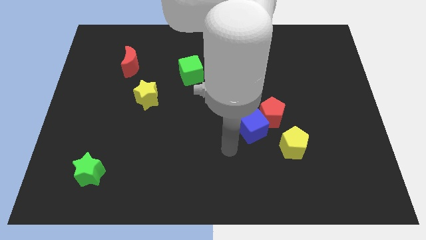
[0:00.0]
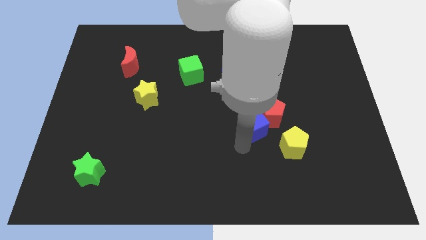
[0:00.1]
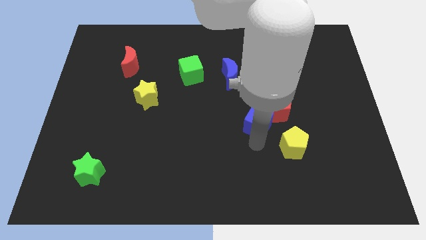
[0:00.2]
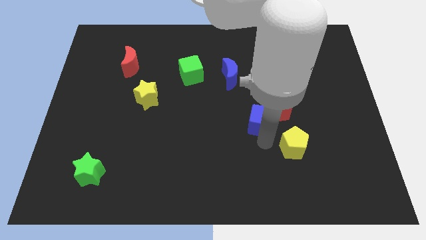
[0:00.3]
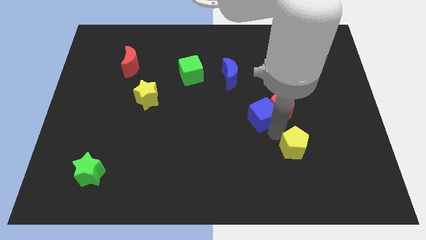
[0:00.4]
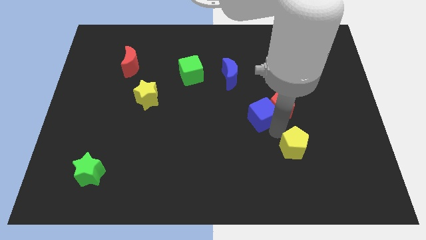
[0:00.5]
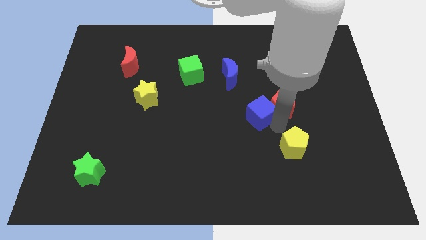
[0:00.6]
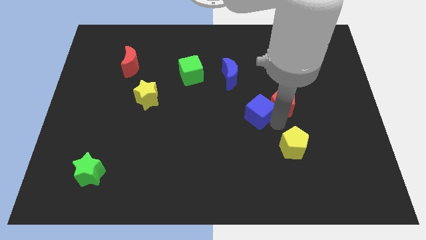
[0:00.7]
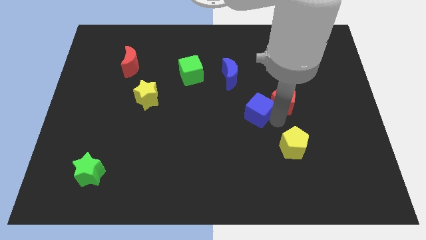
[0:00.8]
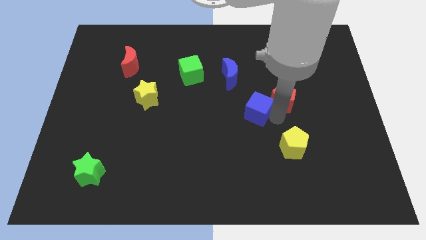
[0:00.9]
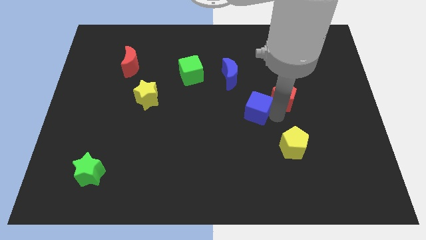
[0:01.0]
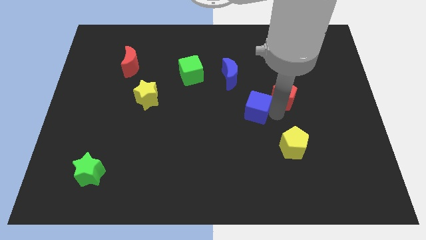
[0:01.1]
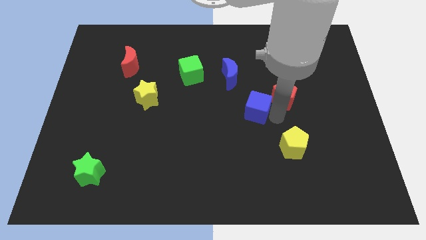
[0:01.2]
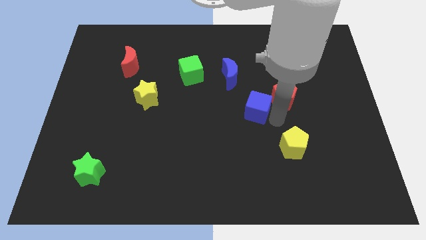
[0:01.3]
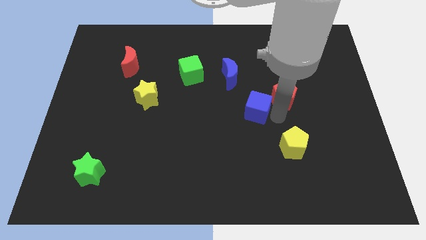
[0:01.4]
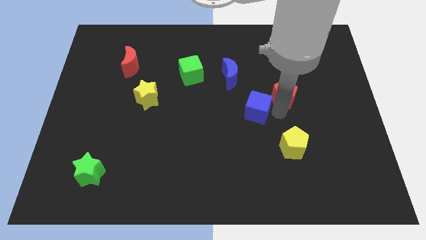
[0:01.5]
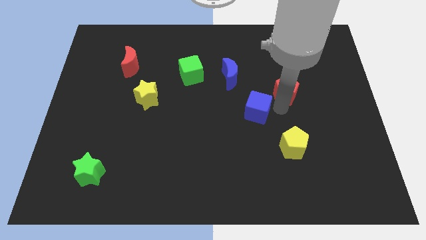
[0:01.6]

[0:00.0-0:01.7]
pull the red pentagon apart from the blue cube and yellow pentagon

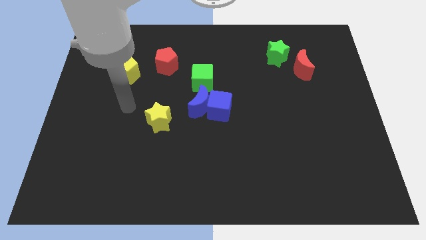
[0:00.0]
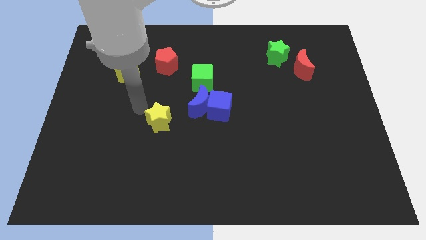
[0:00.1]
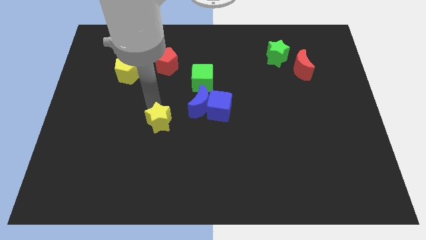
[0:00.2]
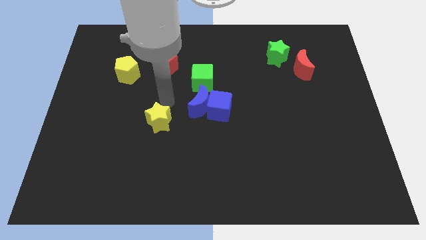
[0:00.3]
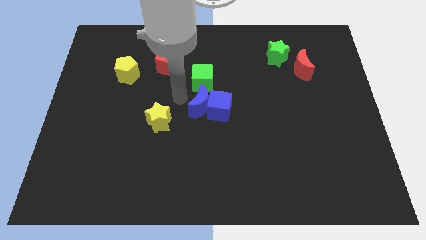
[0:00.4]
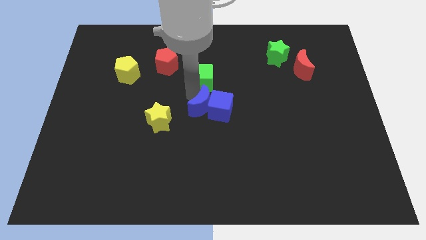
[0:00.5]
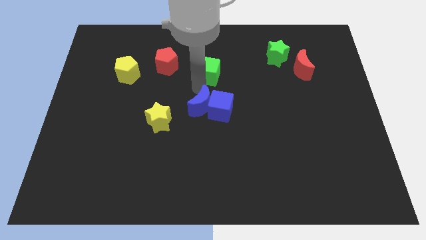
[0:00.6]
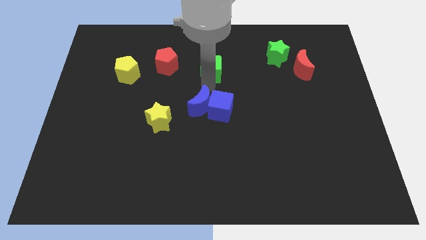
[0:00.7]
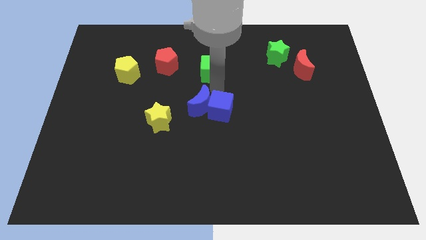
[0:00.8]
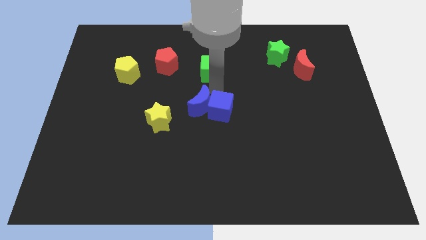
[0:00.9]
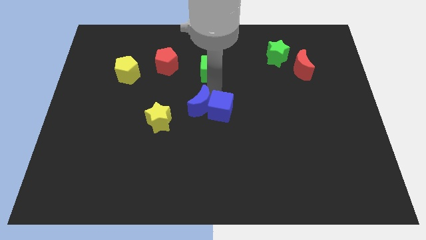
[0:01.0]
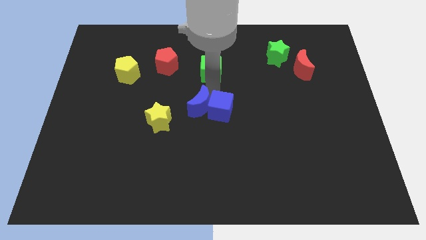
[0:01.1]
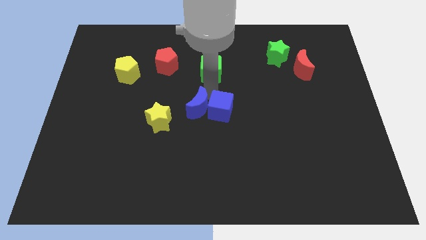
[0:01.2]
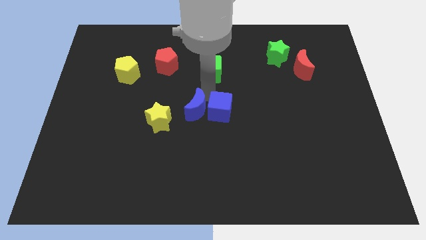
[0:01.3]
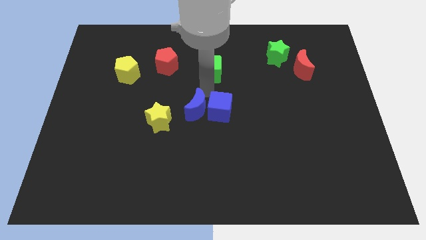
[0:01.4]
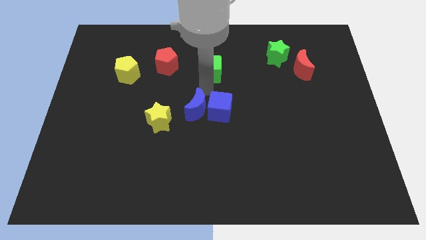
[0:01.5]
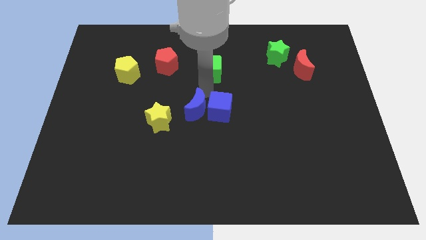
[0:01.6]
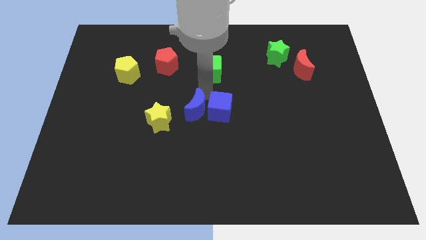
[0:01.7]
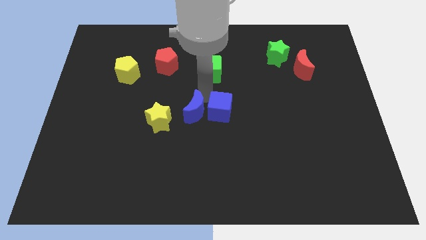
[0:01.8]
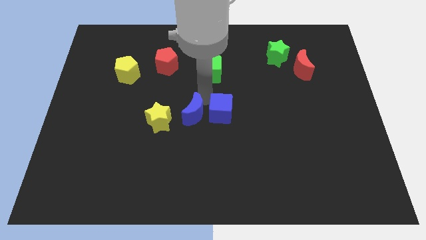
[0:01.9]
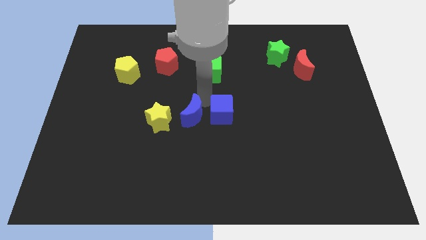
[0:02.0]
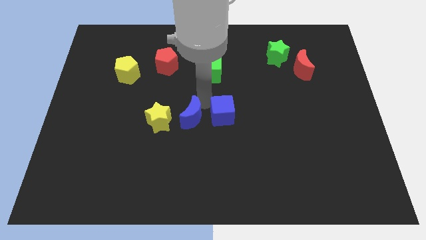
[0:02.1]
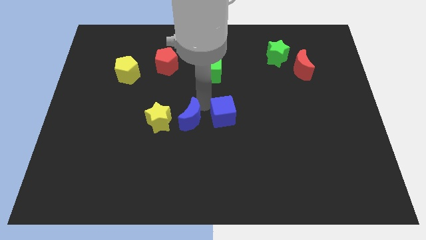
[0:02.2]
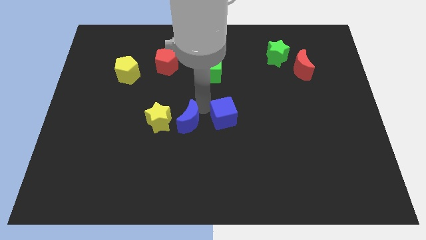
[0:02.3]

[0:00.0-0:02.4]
separate the blue moon from the blue cube and green cube

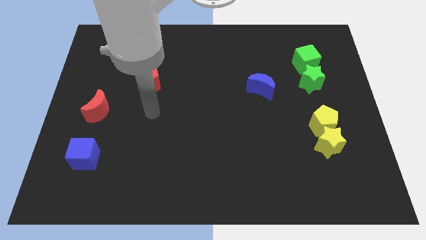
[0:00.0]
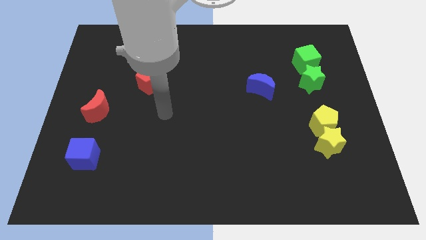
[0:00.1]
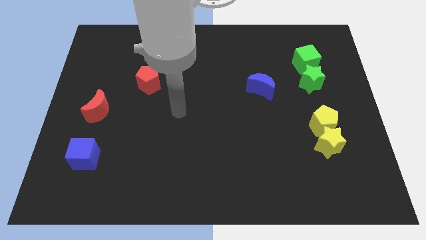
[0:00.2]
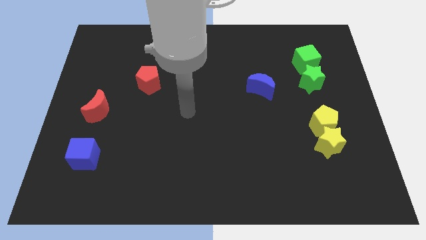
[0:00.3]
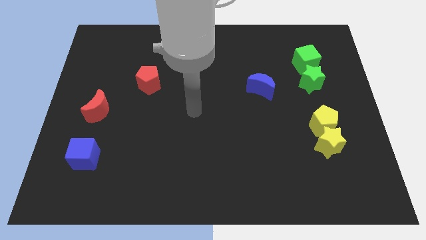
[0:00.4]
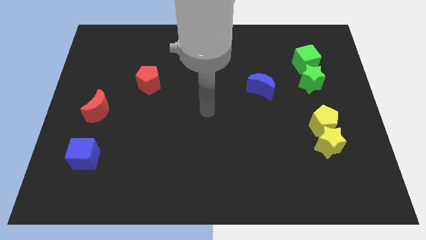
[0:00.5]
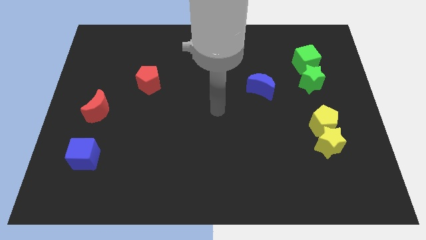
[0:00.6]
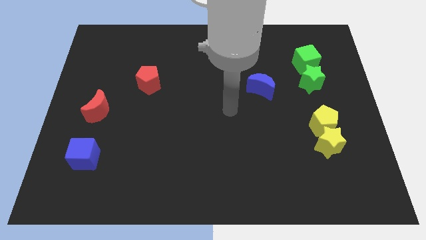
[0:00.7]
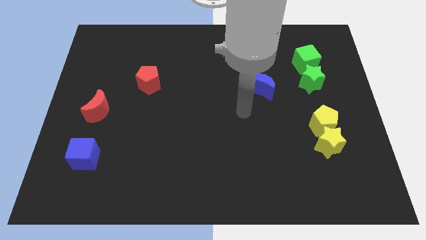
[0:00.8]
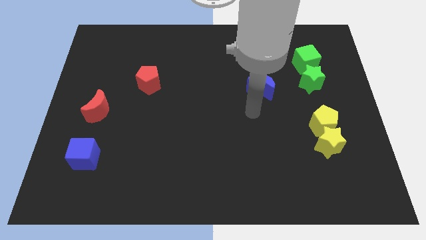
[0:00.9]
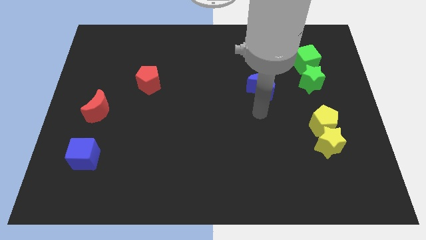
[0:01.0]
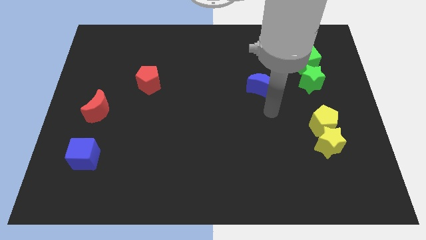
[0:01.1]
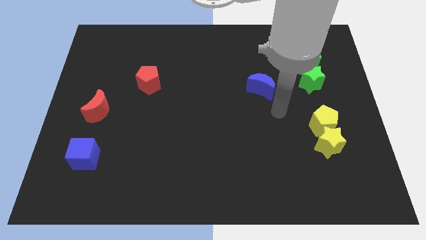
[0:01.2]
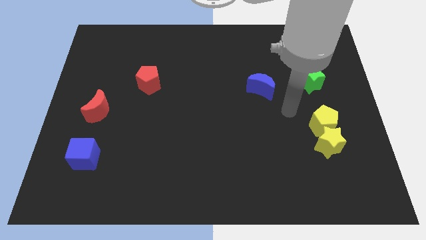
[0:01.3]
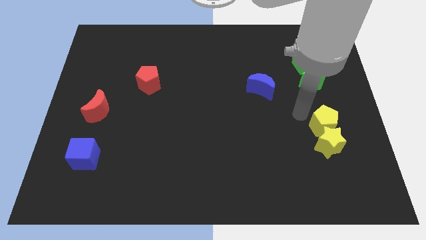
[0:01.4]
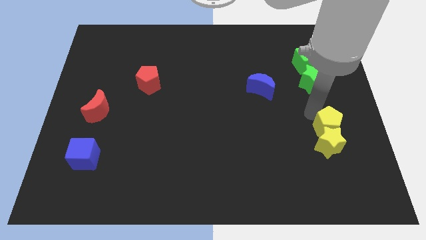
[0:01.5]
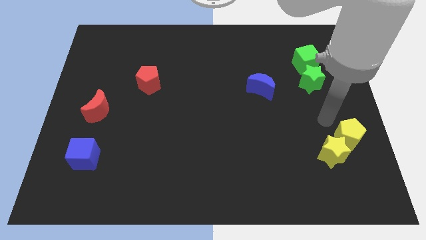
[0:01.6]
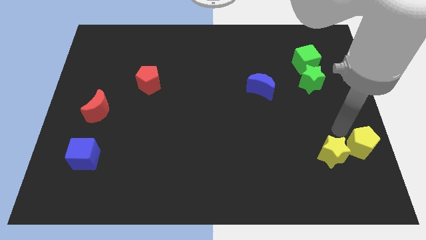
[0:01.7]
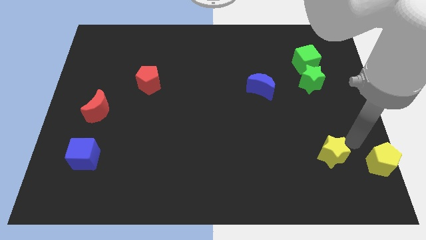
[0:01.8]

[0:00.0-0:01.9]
pull the yellow star apart from the yellow pentagon

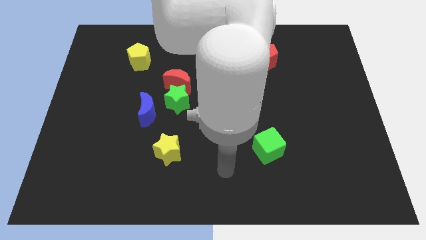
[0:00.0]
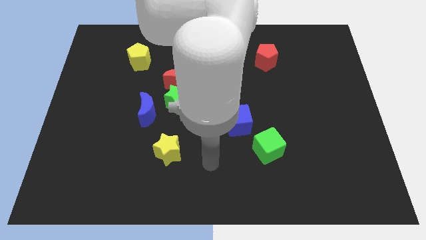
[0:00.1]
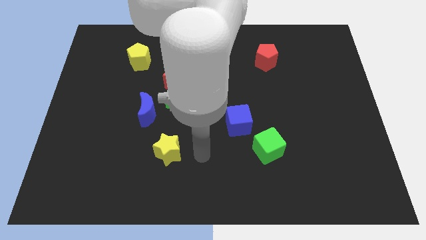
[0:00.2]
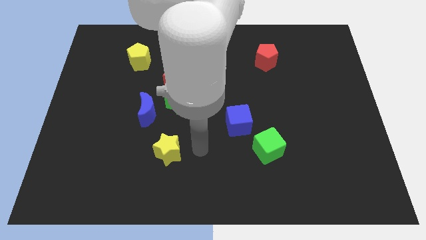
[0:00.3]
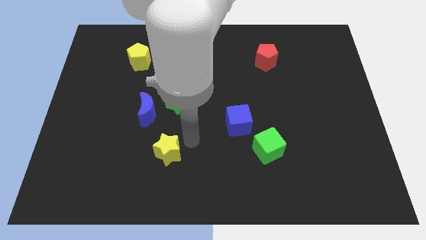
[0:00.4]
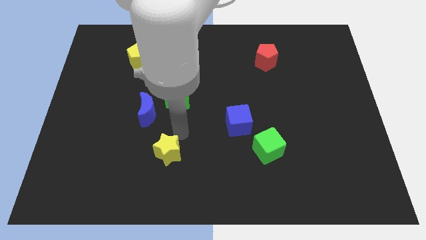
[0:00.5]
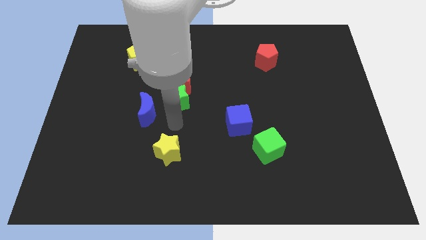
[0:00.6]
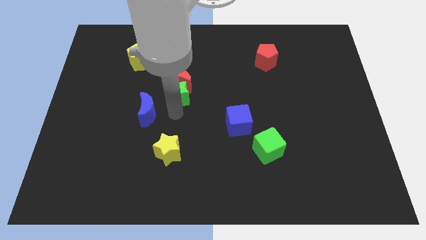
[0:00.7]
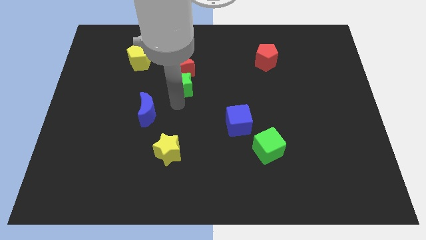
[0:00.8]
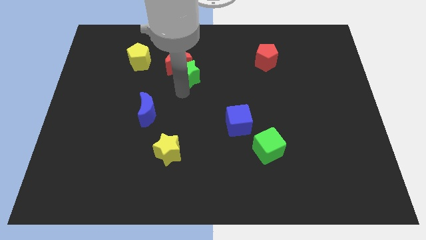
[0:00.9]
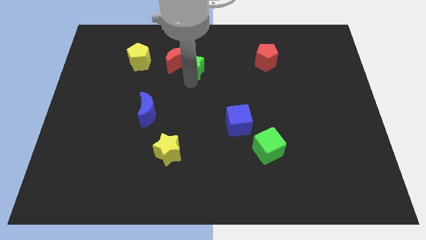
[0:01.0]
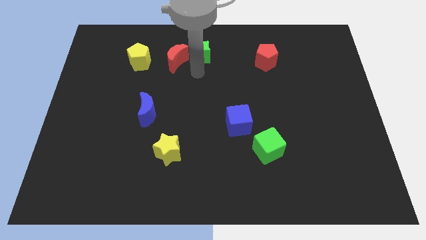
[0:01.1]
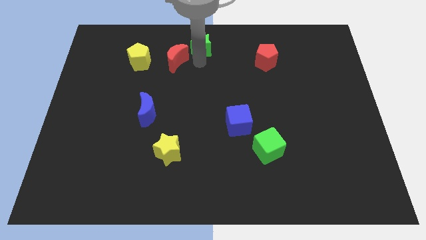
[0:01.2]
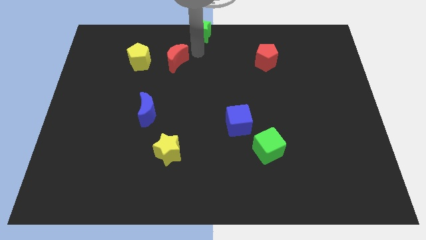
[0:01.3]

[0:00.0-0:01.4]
pull the red moon apart from the green star

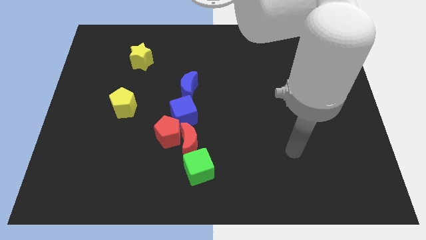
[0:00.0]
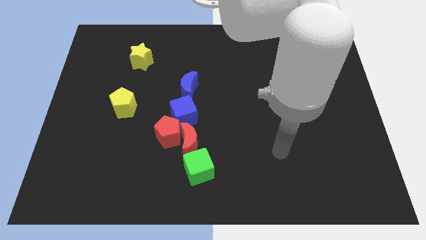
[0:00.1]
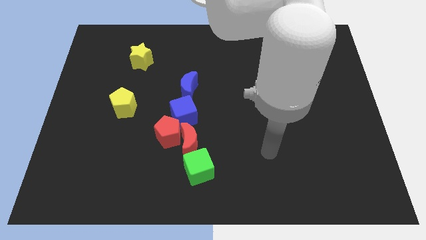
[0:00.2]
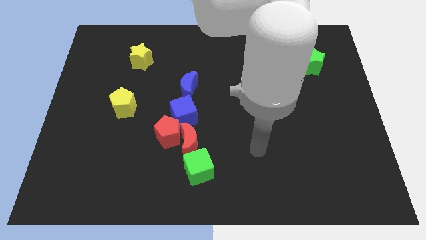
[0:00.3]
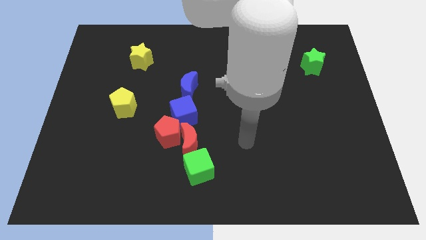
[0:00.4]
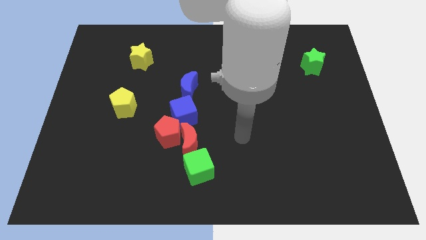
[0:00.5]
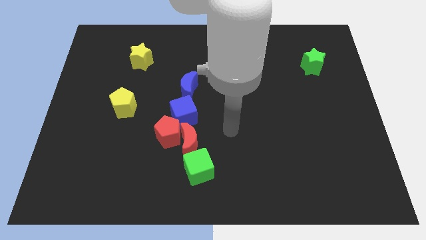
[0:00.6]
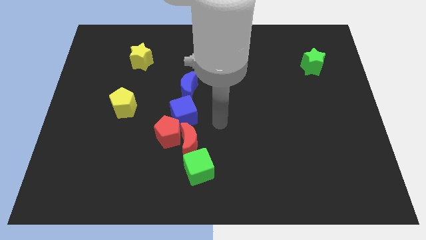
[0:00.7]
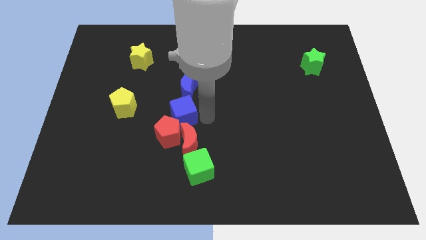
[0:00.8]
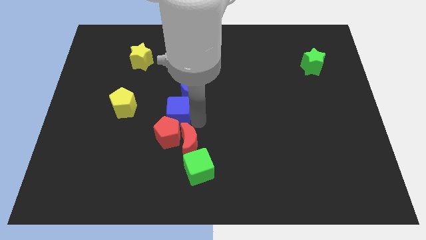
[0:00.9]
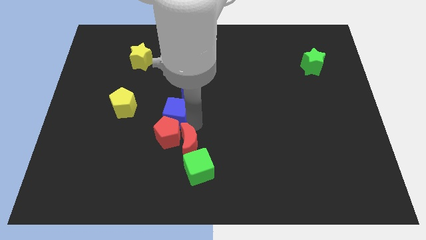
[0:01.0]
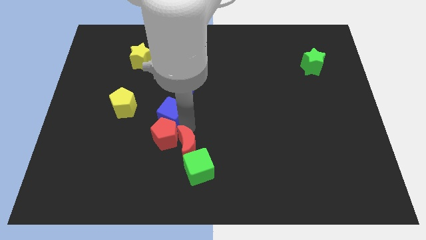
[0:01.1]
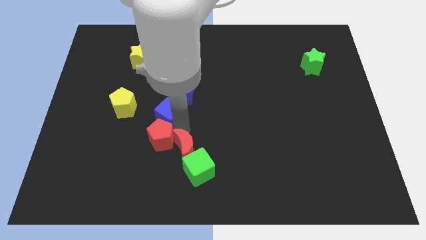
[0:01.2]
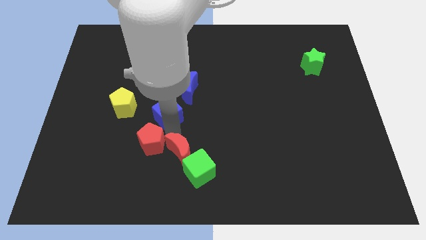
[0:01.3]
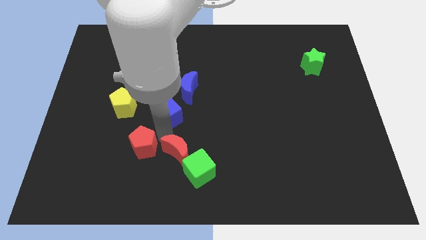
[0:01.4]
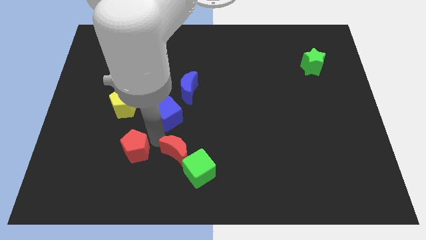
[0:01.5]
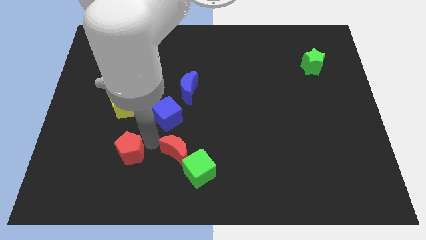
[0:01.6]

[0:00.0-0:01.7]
pull the red pentagon apart from the red moon and blue cube

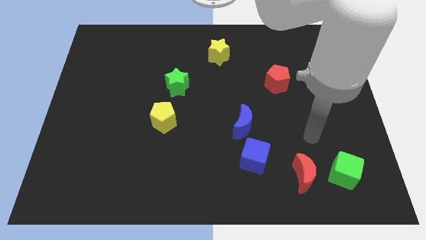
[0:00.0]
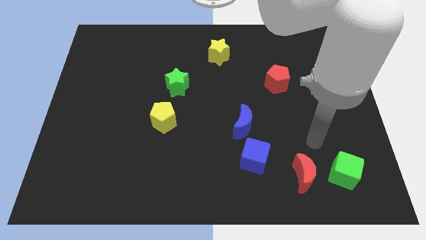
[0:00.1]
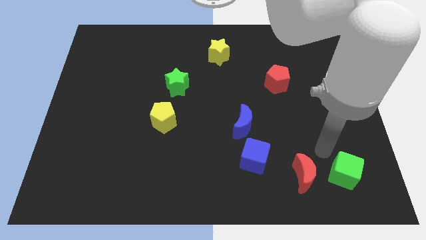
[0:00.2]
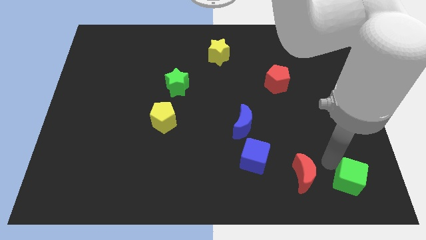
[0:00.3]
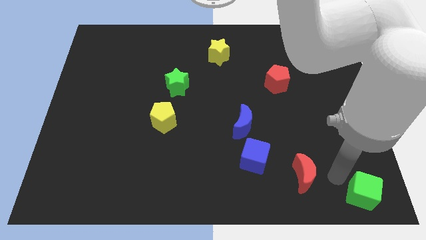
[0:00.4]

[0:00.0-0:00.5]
move the red moon away from the green cube
